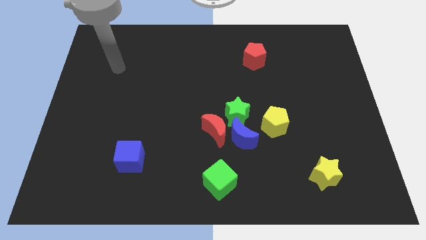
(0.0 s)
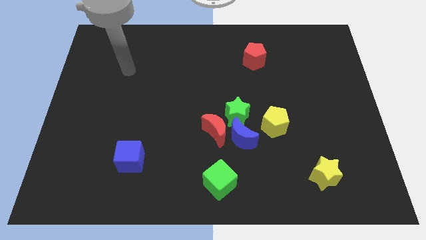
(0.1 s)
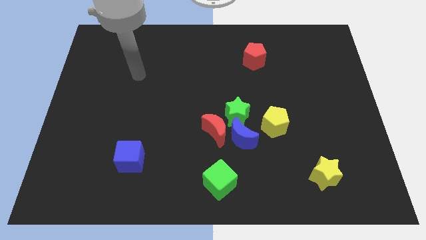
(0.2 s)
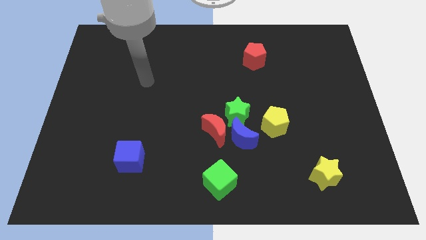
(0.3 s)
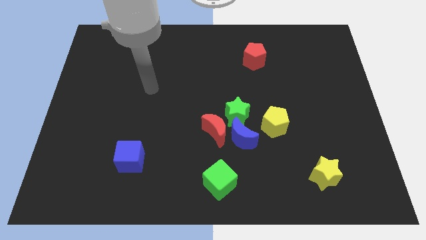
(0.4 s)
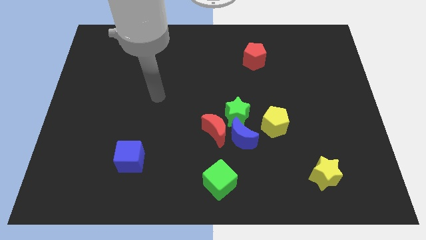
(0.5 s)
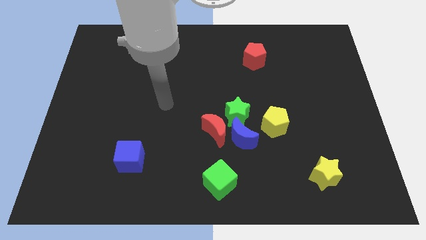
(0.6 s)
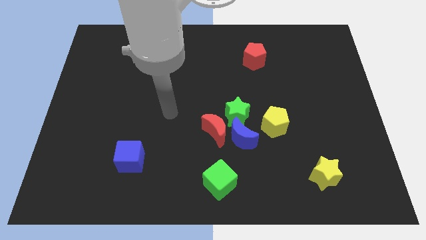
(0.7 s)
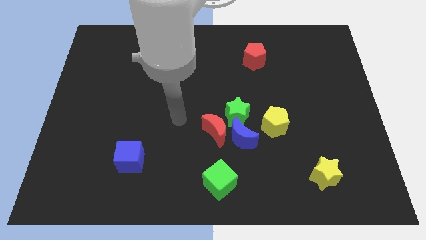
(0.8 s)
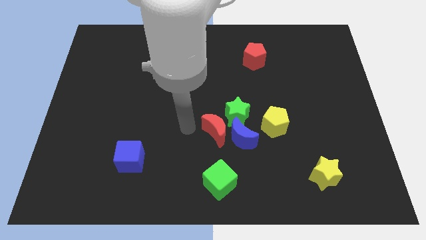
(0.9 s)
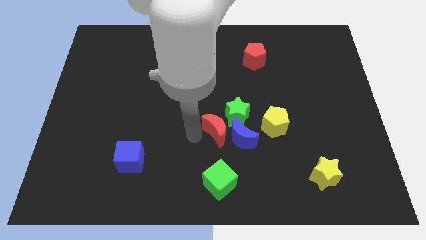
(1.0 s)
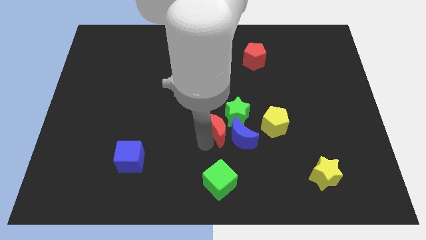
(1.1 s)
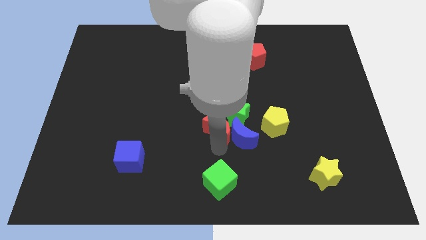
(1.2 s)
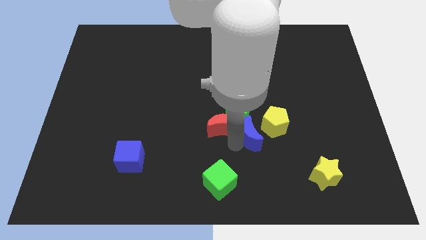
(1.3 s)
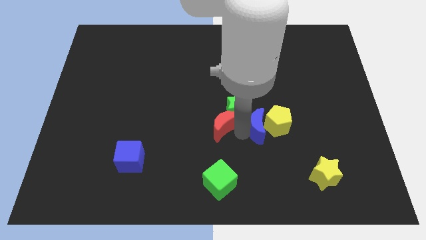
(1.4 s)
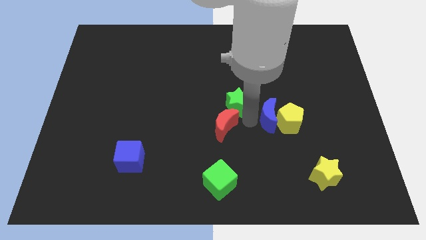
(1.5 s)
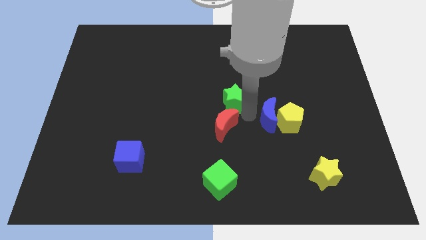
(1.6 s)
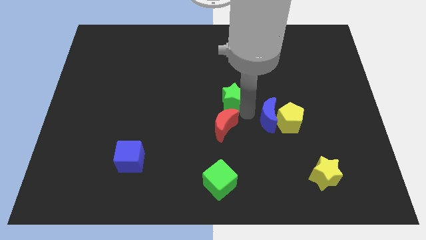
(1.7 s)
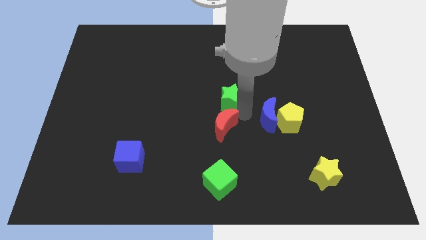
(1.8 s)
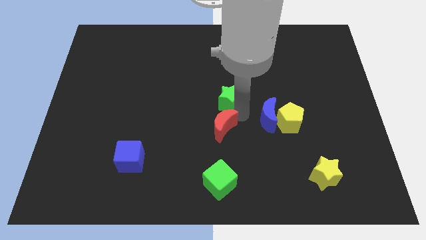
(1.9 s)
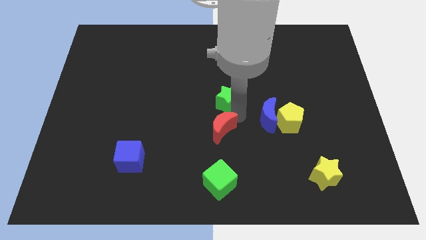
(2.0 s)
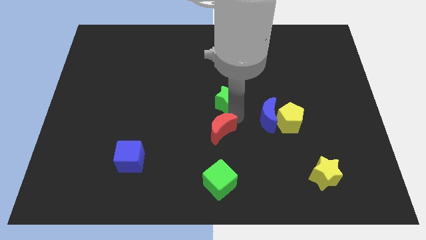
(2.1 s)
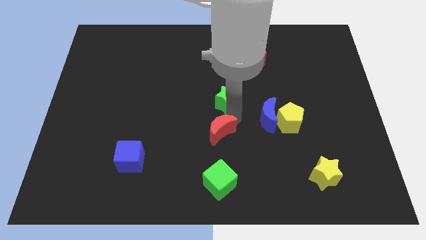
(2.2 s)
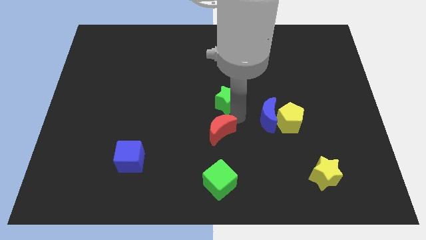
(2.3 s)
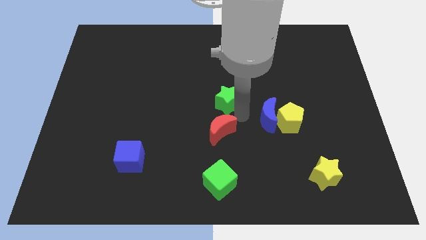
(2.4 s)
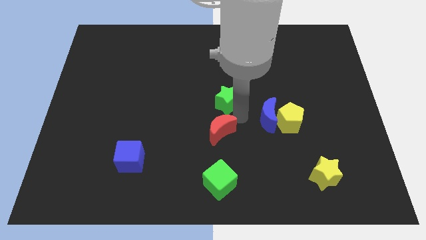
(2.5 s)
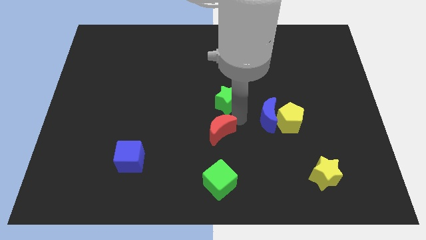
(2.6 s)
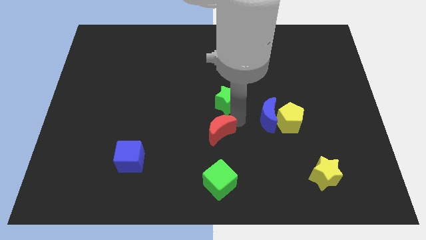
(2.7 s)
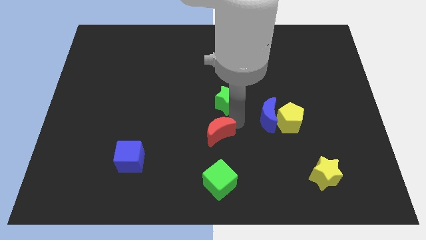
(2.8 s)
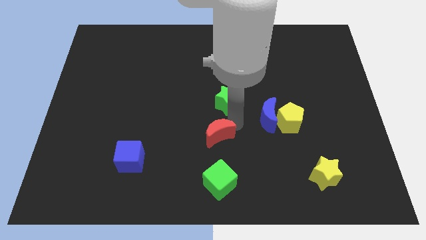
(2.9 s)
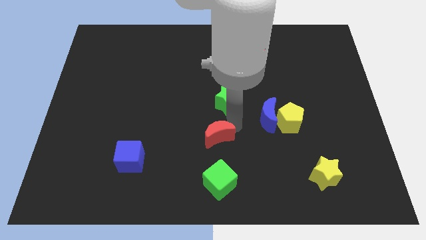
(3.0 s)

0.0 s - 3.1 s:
move the red moon away from the blue moon and green star

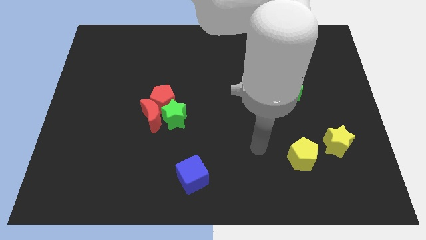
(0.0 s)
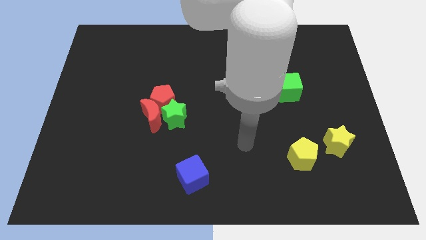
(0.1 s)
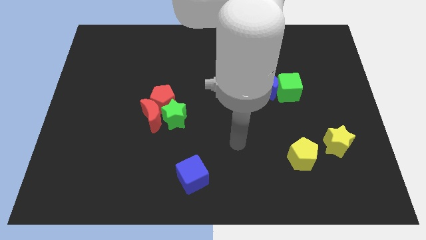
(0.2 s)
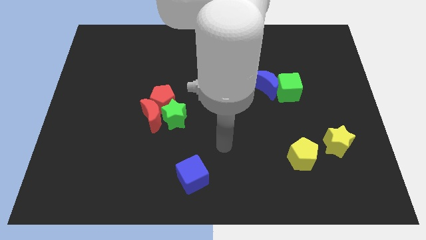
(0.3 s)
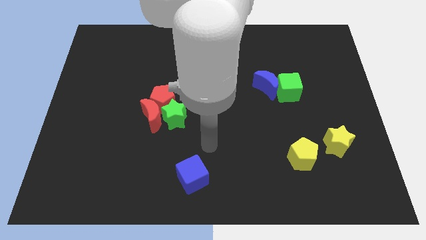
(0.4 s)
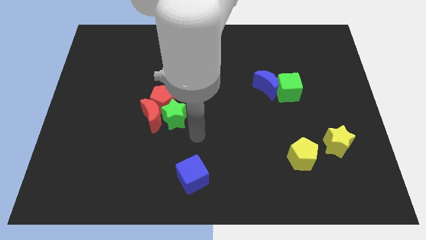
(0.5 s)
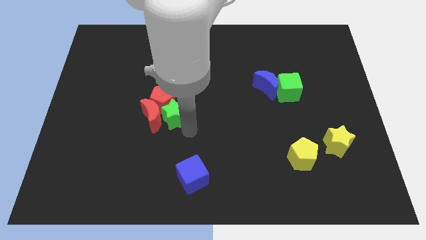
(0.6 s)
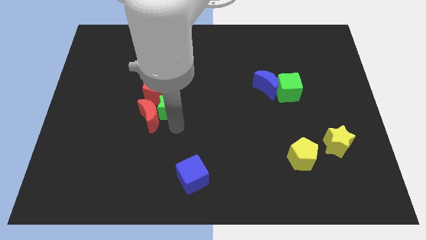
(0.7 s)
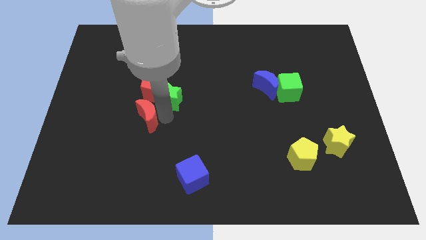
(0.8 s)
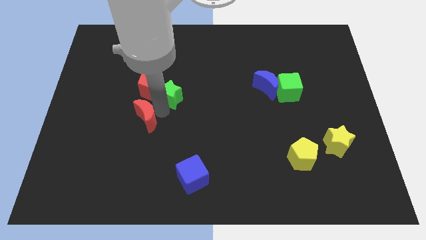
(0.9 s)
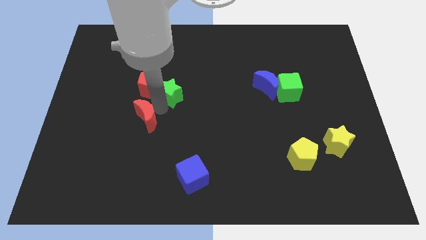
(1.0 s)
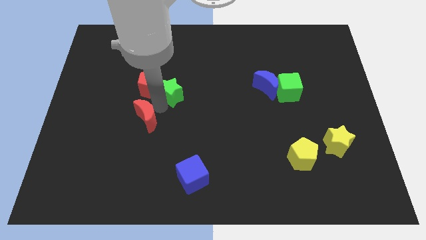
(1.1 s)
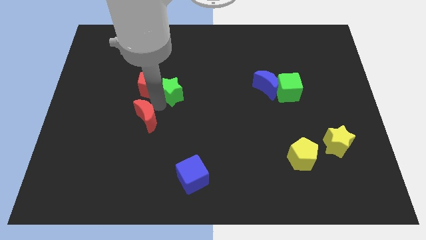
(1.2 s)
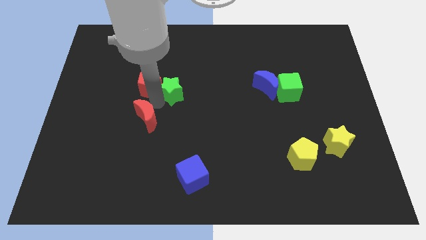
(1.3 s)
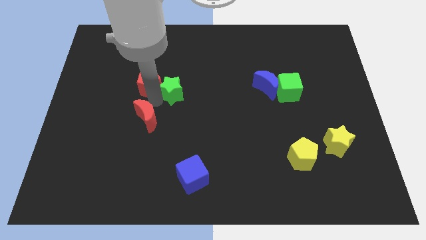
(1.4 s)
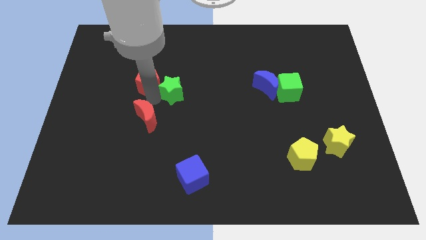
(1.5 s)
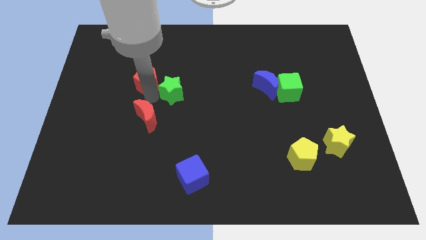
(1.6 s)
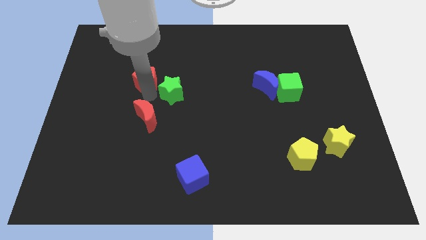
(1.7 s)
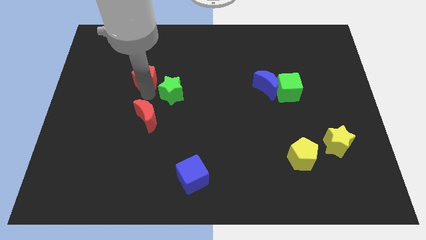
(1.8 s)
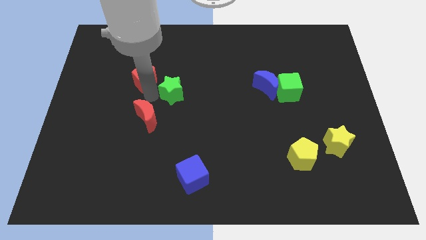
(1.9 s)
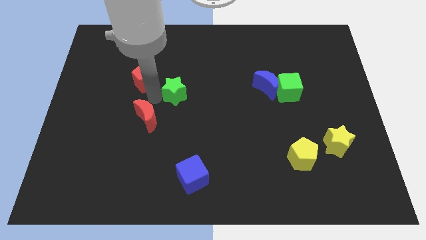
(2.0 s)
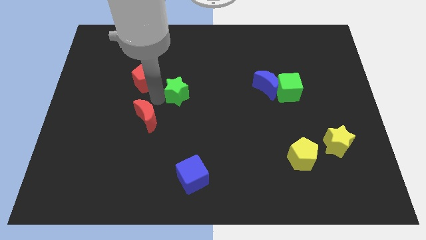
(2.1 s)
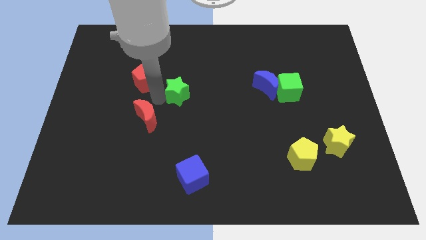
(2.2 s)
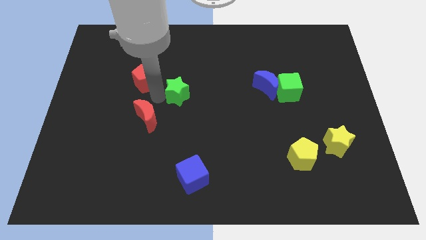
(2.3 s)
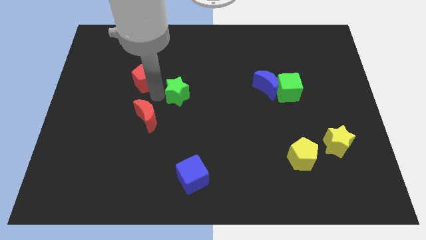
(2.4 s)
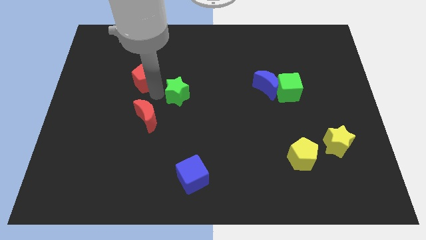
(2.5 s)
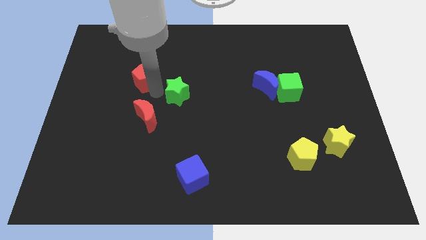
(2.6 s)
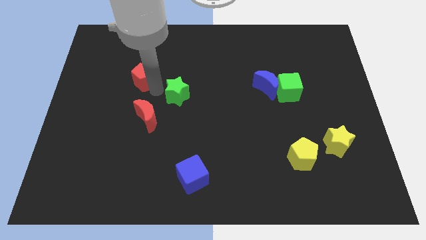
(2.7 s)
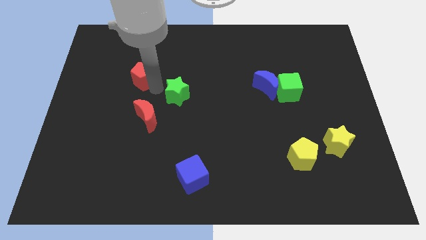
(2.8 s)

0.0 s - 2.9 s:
pull the red pentagon apart from the red moon and green star

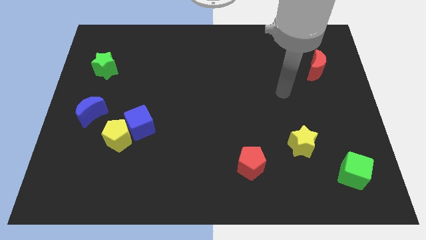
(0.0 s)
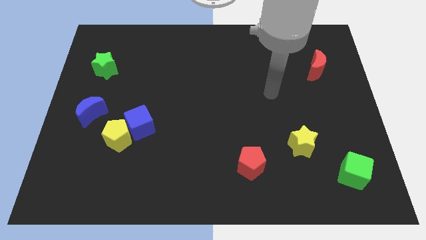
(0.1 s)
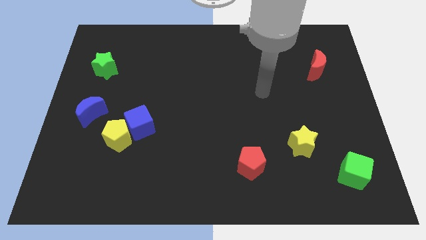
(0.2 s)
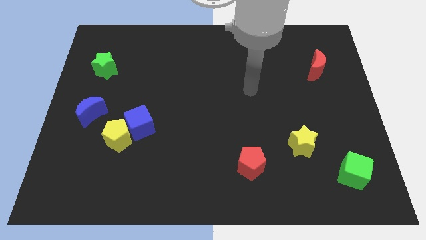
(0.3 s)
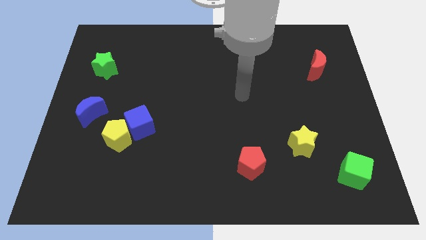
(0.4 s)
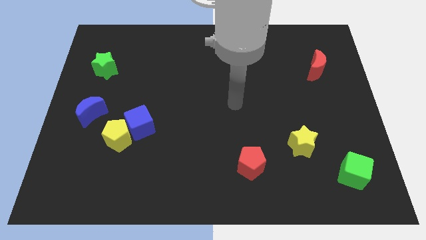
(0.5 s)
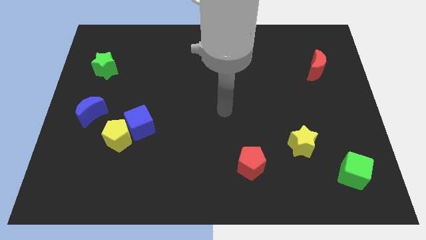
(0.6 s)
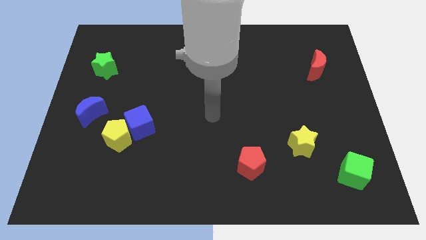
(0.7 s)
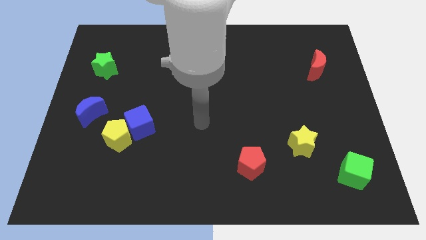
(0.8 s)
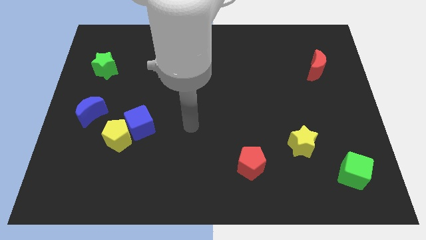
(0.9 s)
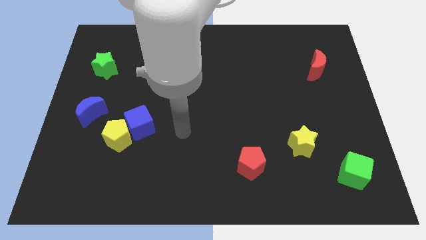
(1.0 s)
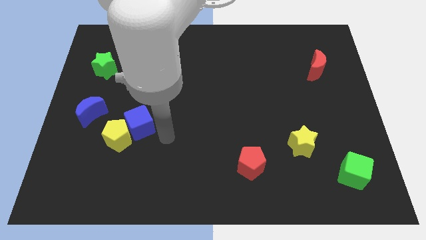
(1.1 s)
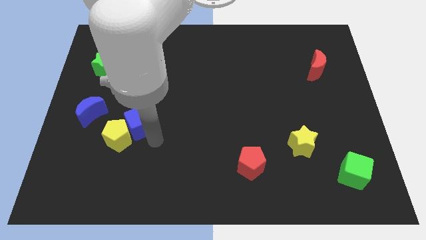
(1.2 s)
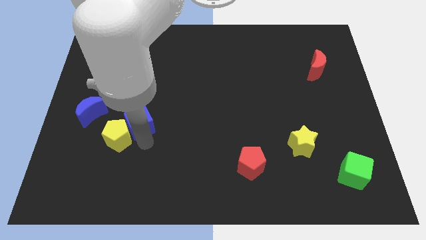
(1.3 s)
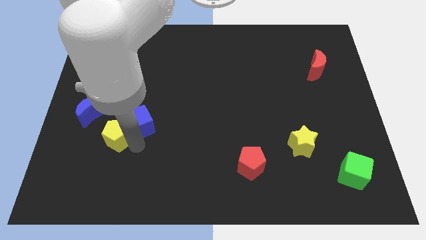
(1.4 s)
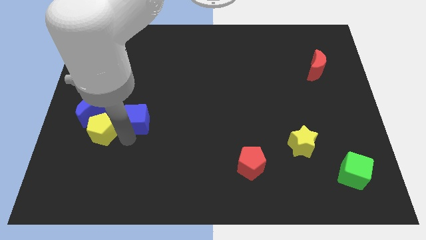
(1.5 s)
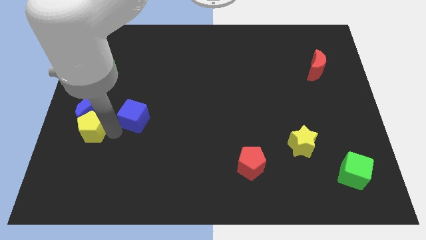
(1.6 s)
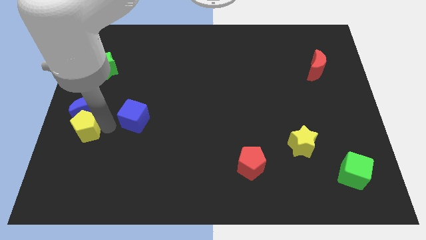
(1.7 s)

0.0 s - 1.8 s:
move the blue cube away from the yellow pentagon

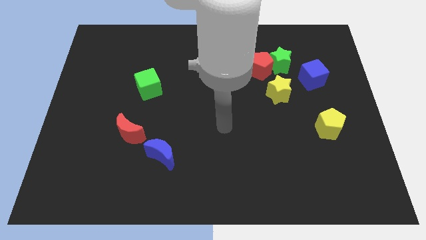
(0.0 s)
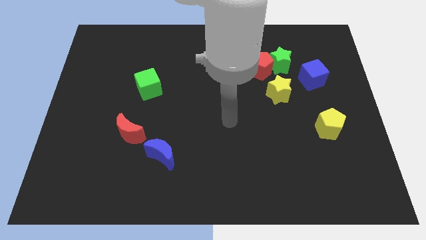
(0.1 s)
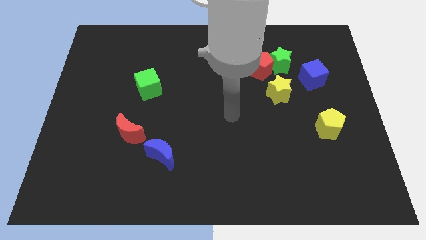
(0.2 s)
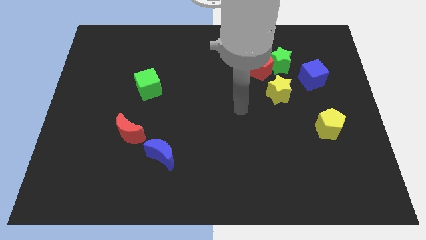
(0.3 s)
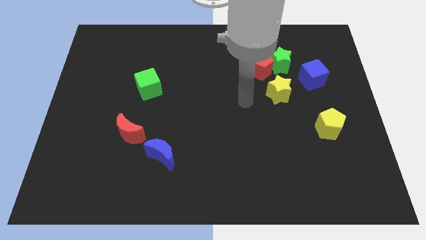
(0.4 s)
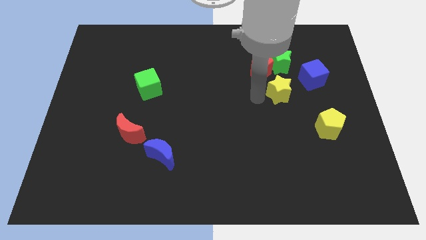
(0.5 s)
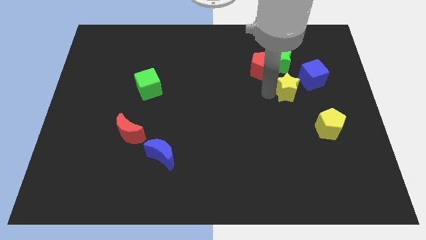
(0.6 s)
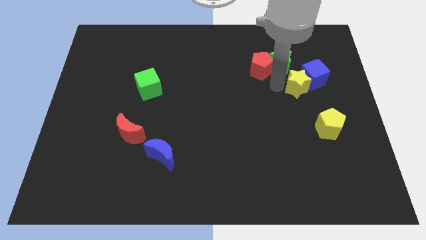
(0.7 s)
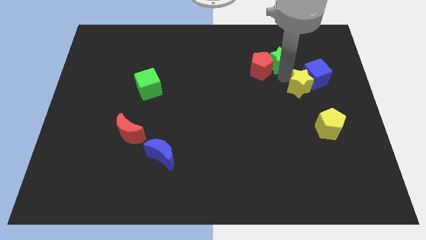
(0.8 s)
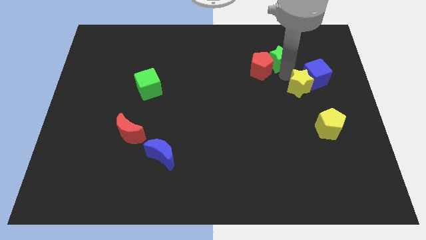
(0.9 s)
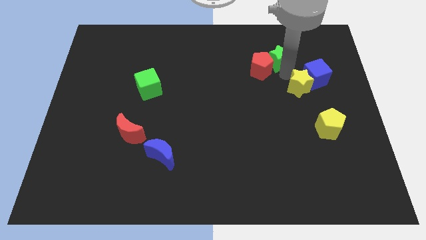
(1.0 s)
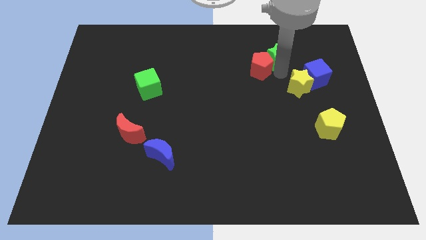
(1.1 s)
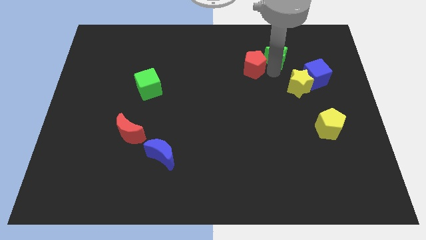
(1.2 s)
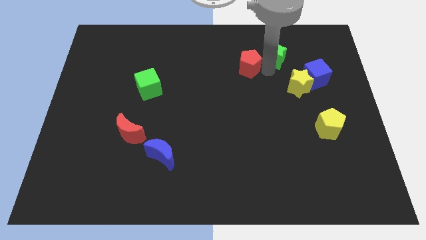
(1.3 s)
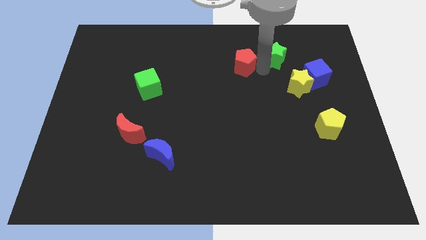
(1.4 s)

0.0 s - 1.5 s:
move the red pentagon away from the green star and yellow star

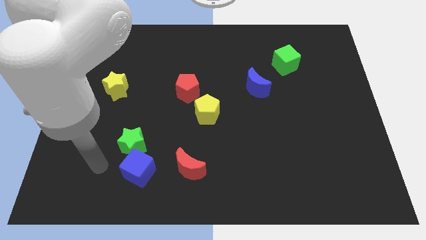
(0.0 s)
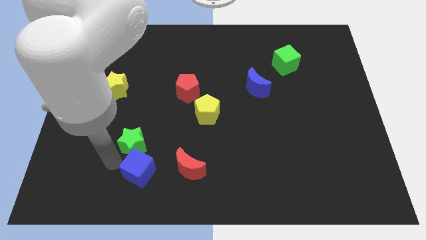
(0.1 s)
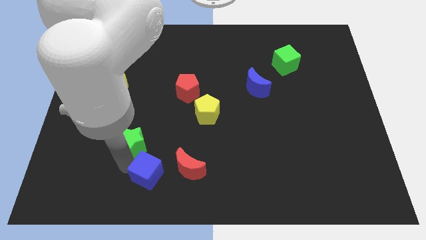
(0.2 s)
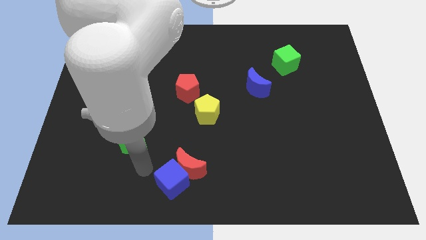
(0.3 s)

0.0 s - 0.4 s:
pull the green star apart from the blue cube
